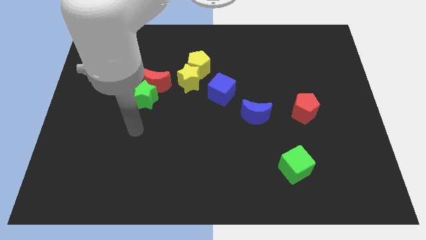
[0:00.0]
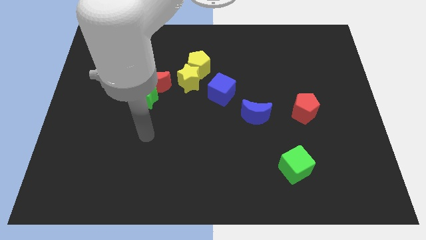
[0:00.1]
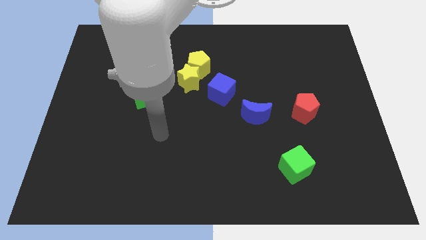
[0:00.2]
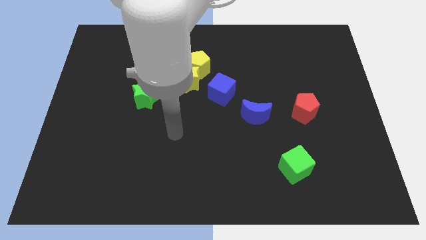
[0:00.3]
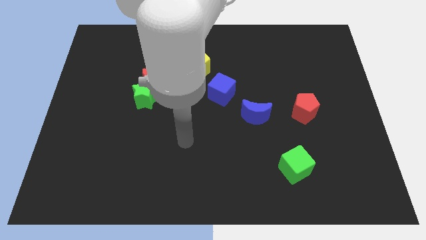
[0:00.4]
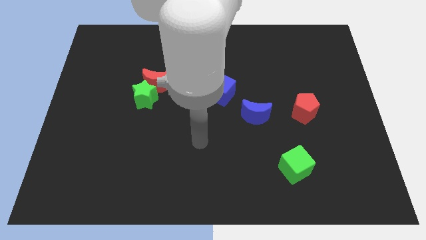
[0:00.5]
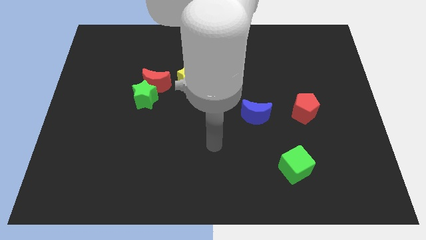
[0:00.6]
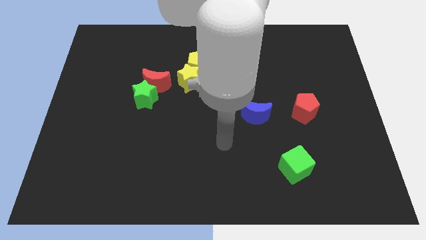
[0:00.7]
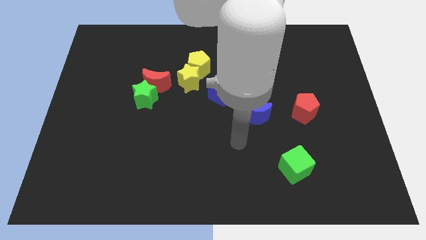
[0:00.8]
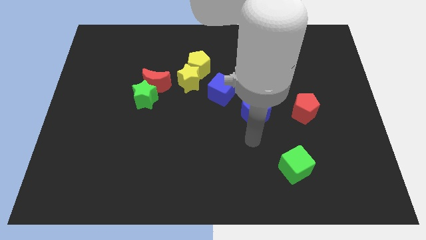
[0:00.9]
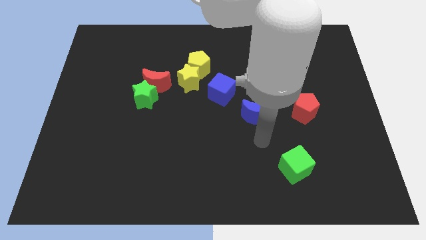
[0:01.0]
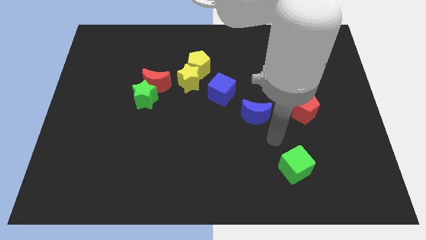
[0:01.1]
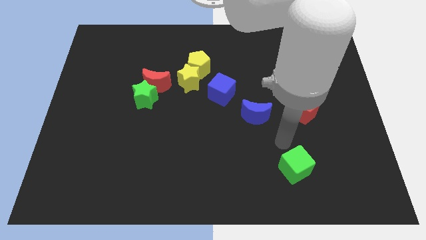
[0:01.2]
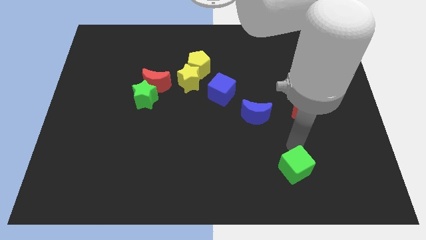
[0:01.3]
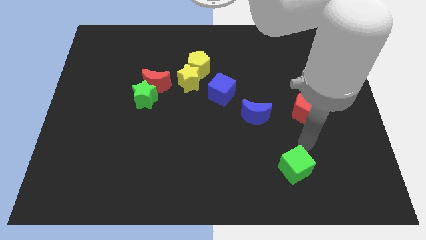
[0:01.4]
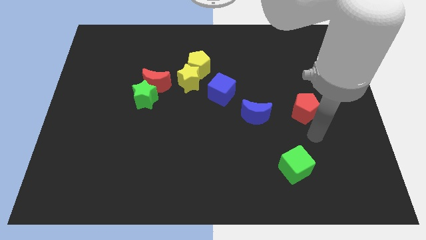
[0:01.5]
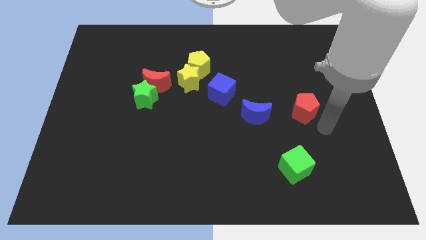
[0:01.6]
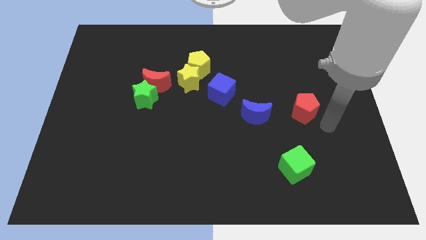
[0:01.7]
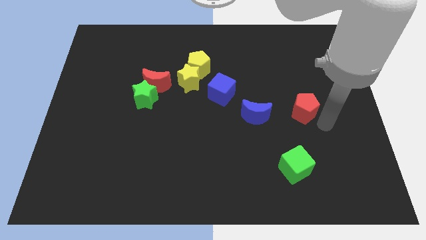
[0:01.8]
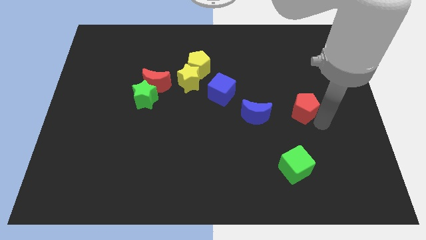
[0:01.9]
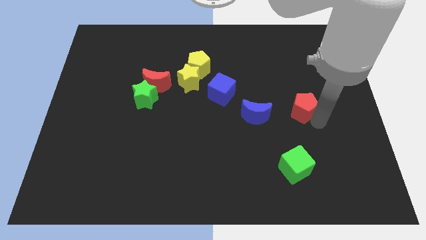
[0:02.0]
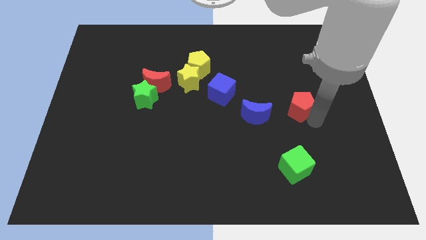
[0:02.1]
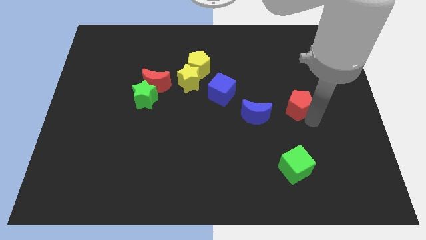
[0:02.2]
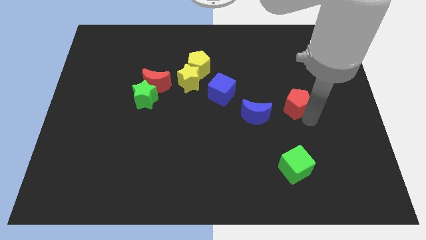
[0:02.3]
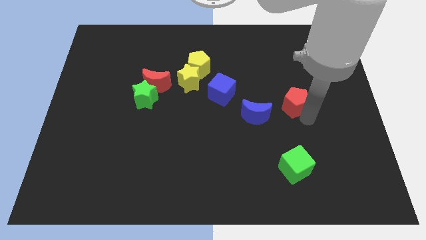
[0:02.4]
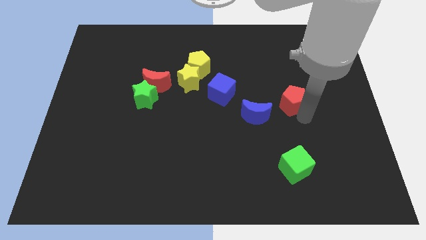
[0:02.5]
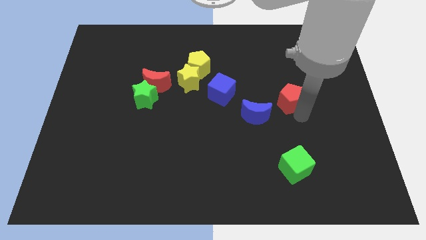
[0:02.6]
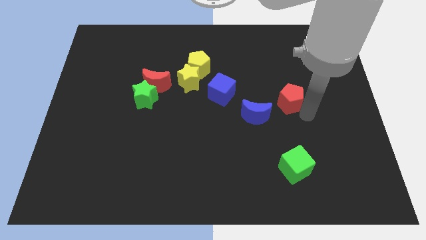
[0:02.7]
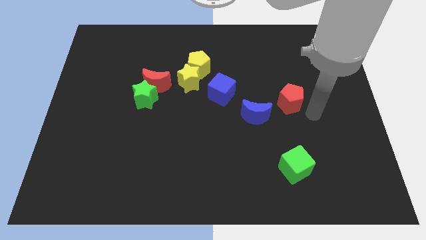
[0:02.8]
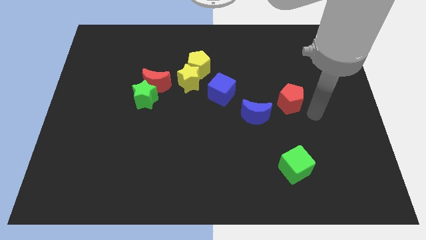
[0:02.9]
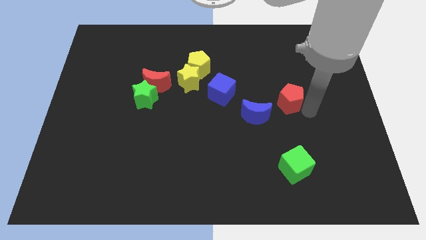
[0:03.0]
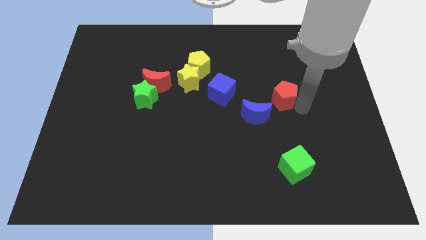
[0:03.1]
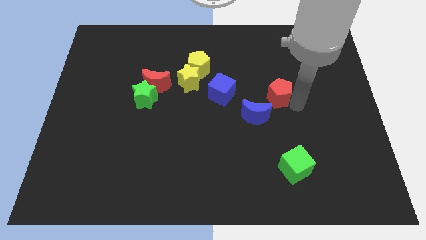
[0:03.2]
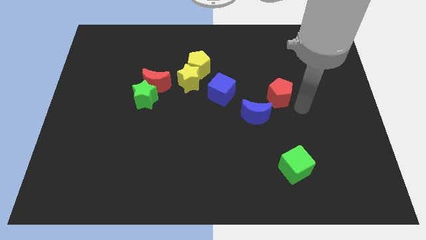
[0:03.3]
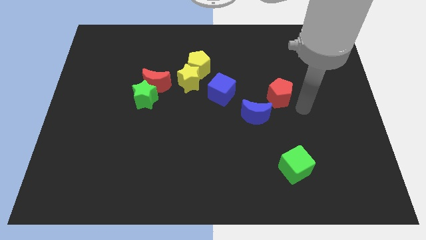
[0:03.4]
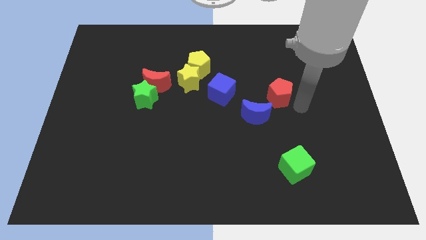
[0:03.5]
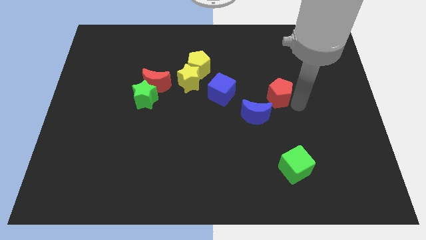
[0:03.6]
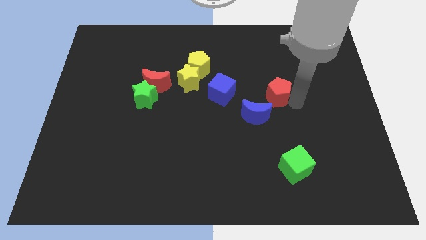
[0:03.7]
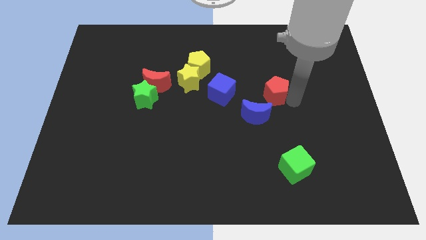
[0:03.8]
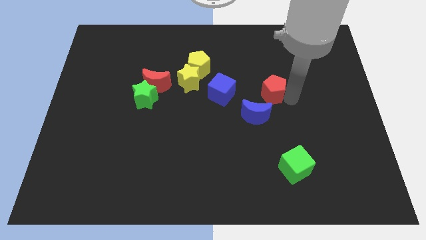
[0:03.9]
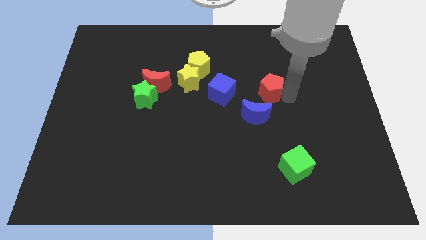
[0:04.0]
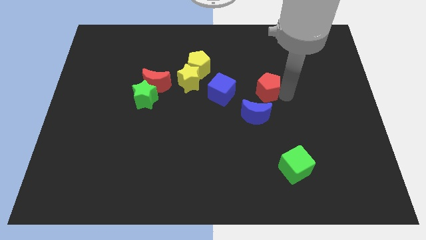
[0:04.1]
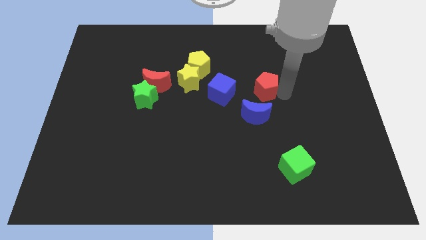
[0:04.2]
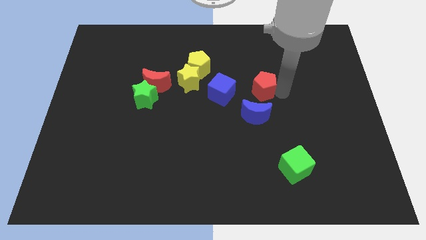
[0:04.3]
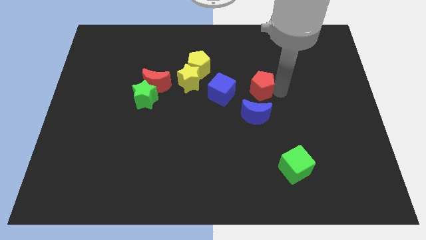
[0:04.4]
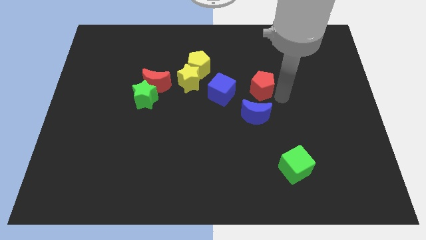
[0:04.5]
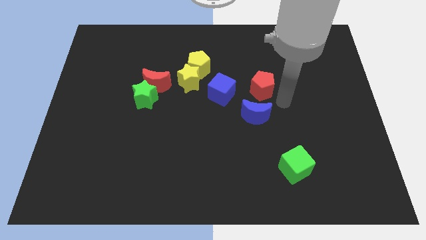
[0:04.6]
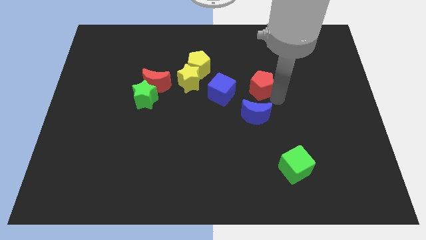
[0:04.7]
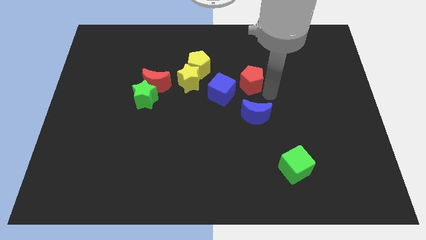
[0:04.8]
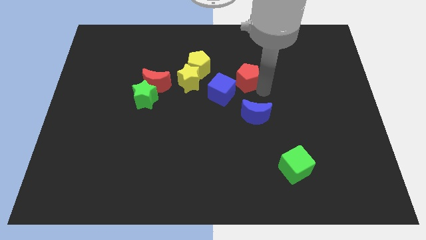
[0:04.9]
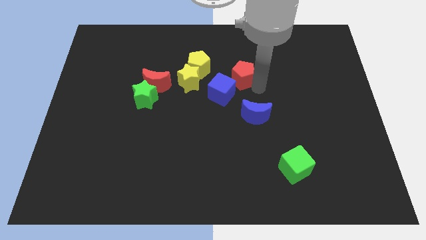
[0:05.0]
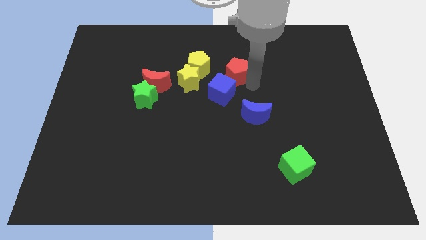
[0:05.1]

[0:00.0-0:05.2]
slide the red pentagon above the blue cube

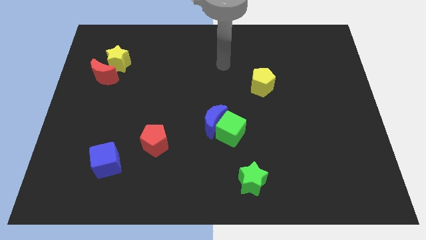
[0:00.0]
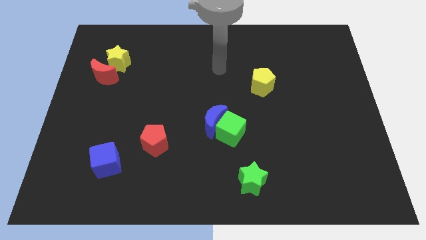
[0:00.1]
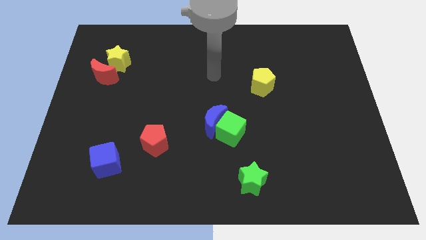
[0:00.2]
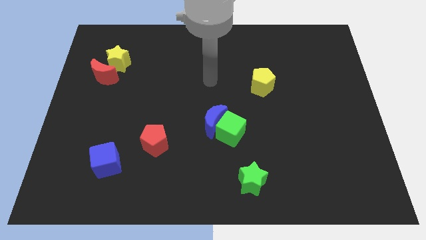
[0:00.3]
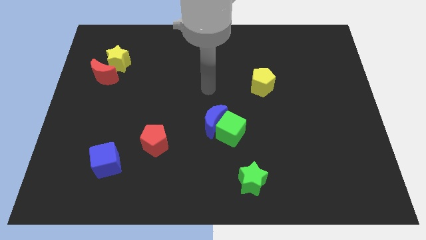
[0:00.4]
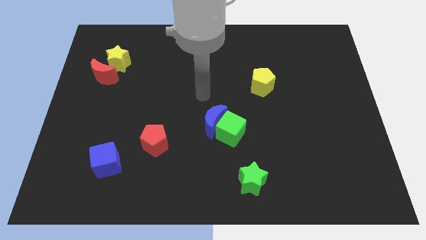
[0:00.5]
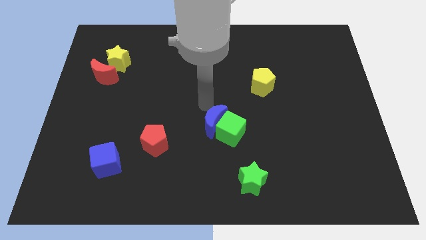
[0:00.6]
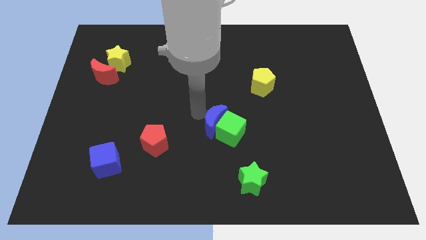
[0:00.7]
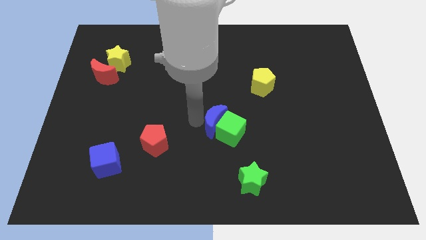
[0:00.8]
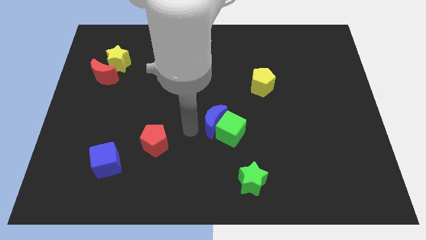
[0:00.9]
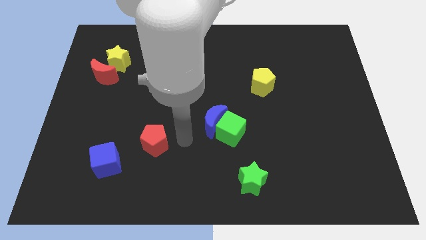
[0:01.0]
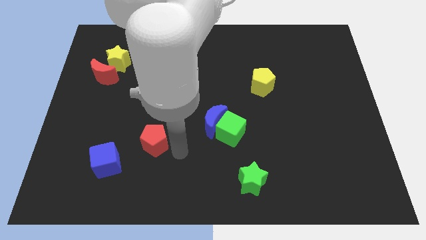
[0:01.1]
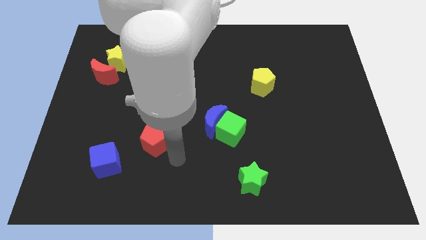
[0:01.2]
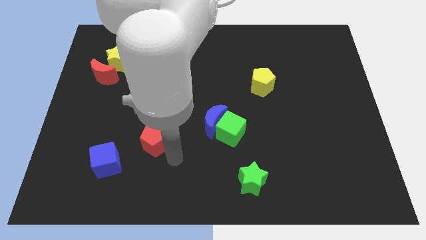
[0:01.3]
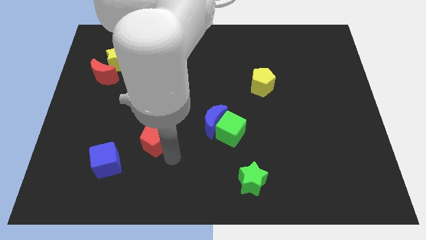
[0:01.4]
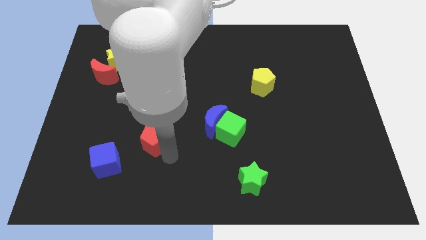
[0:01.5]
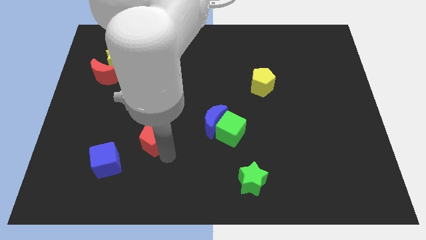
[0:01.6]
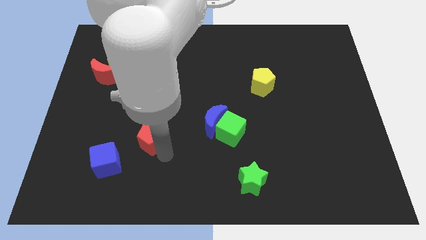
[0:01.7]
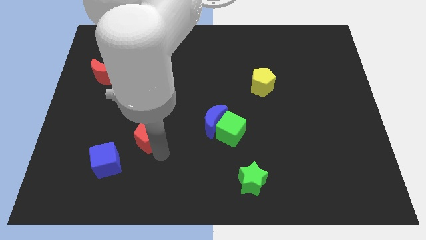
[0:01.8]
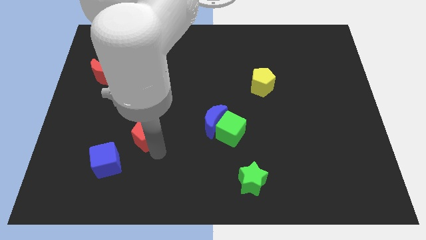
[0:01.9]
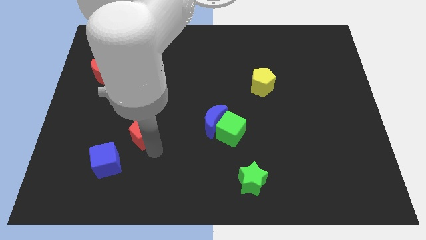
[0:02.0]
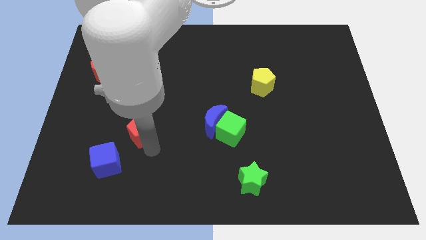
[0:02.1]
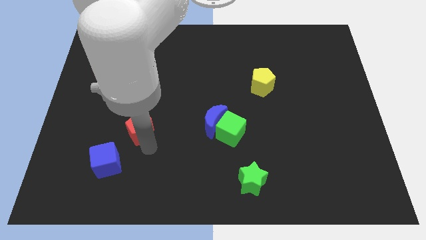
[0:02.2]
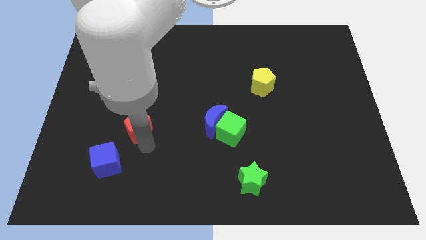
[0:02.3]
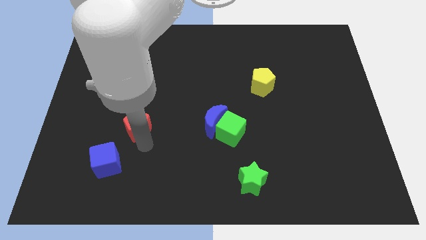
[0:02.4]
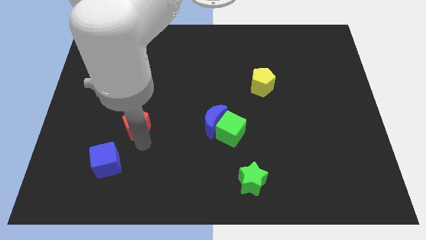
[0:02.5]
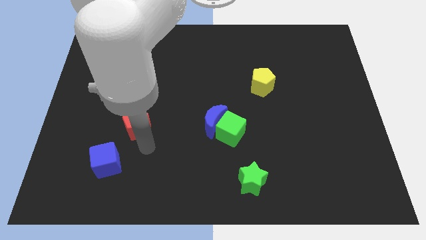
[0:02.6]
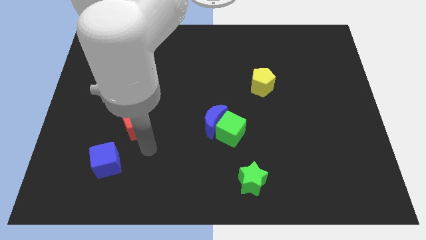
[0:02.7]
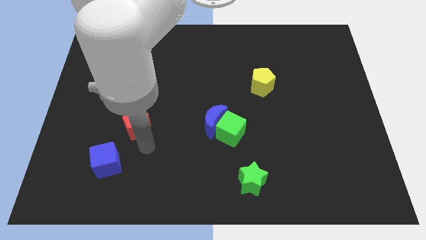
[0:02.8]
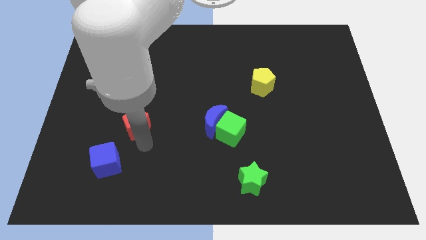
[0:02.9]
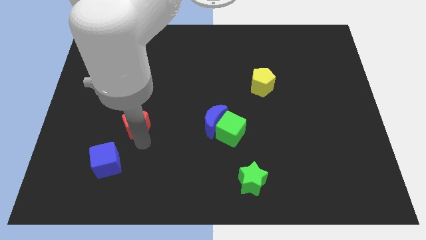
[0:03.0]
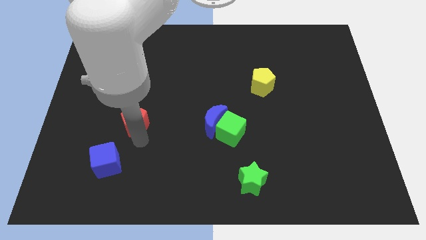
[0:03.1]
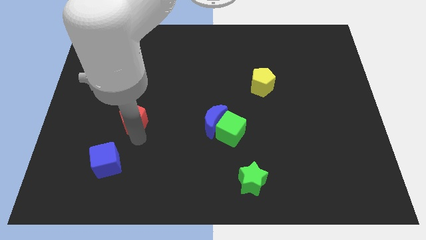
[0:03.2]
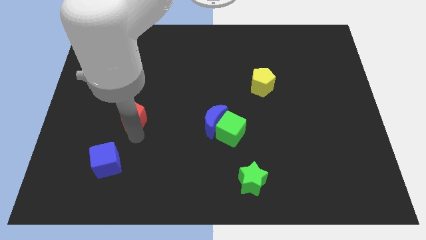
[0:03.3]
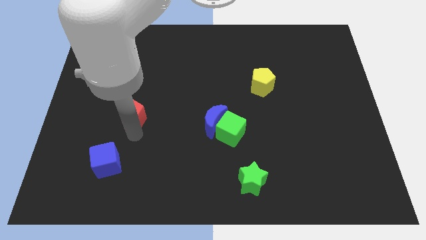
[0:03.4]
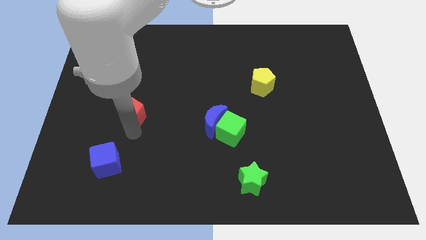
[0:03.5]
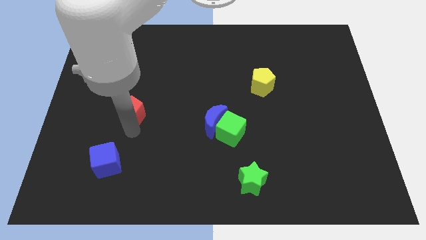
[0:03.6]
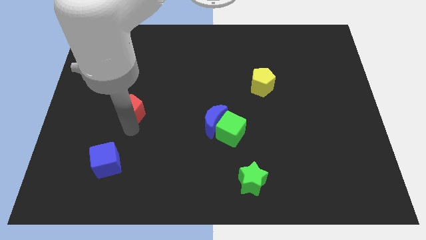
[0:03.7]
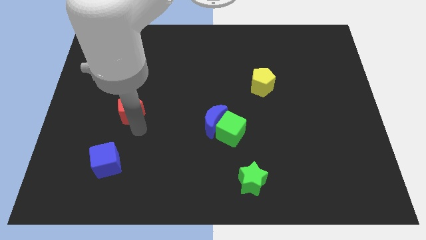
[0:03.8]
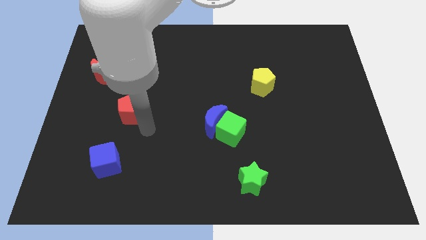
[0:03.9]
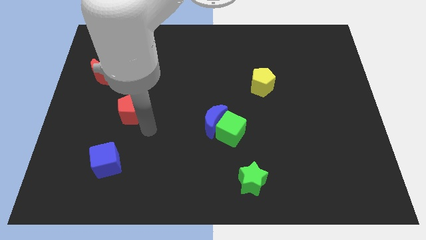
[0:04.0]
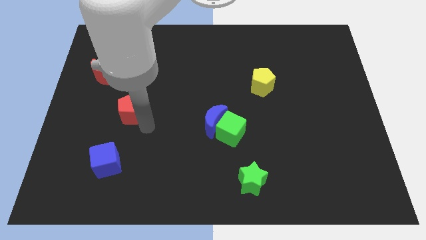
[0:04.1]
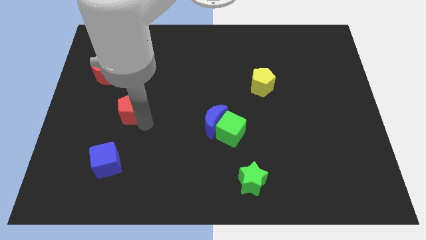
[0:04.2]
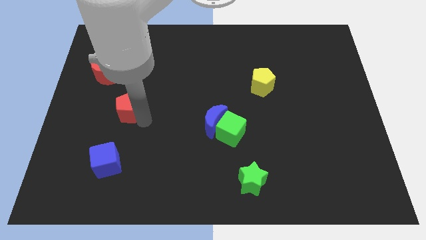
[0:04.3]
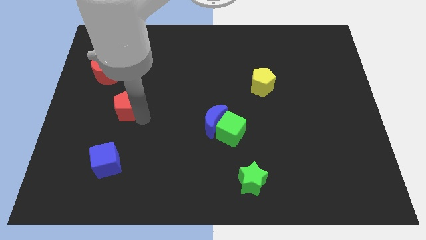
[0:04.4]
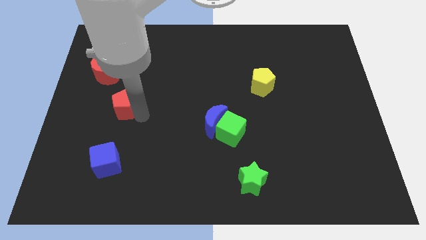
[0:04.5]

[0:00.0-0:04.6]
slide the red pentagon to the bottom of the yellow star
